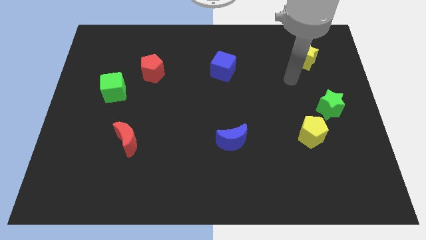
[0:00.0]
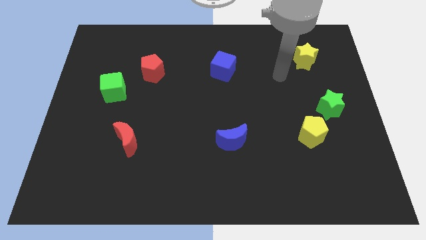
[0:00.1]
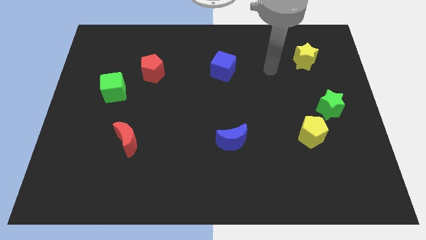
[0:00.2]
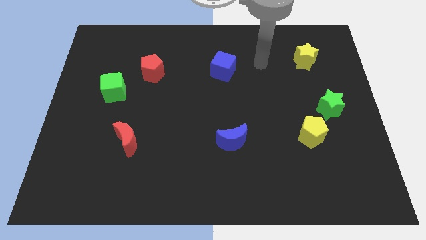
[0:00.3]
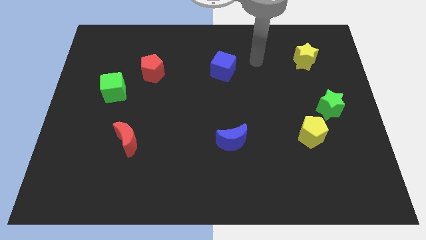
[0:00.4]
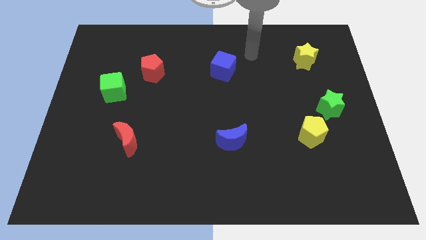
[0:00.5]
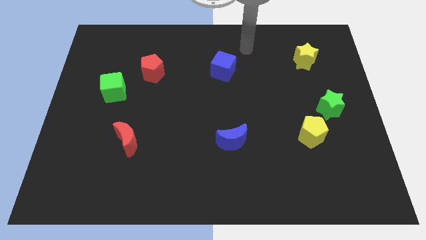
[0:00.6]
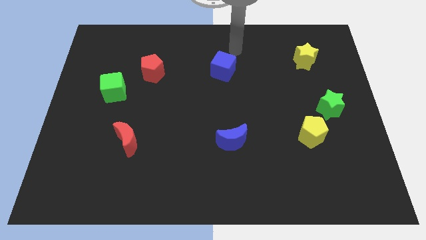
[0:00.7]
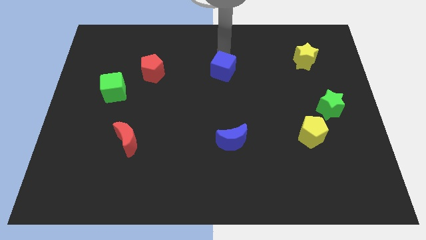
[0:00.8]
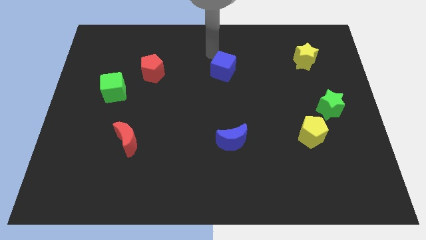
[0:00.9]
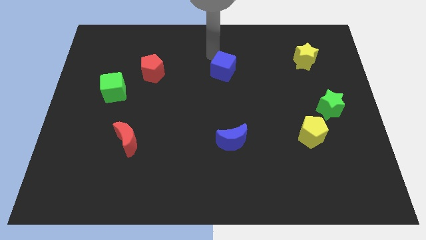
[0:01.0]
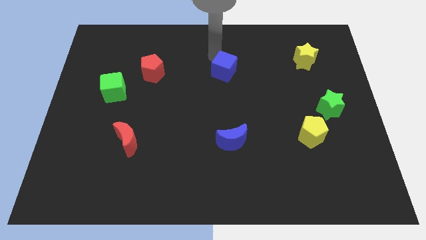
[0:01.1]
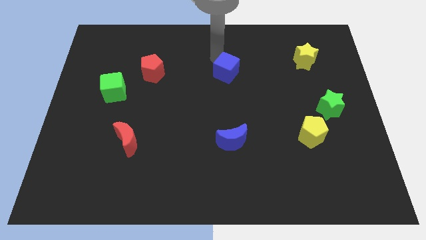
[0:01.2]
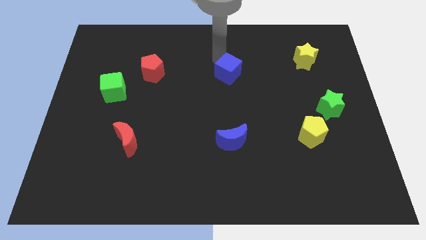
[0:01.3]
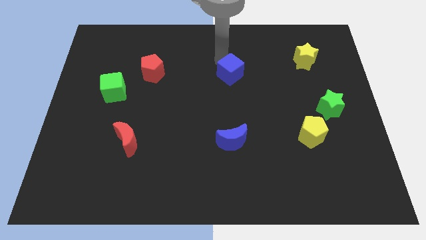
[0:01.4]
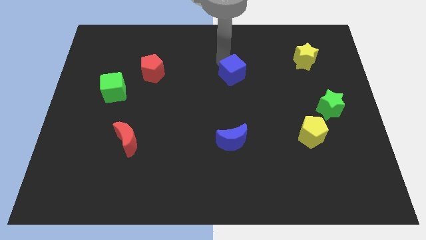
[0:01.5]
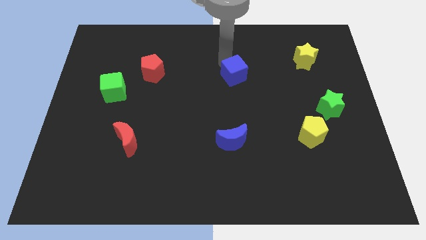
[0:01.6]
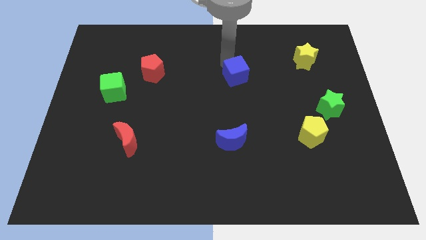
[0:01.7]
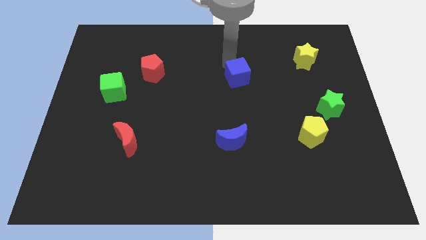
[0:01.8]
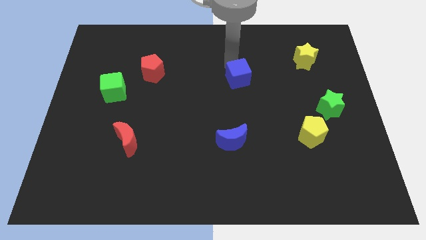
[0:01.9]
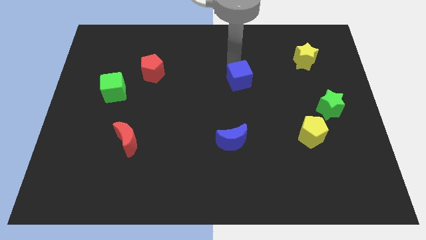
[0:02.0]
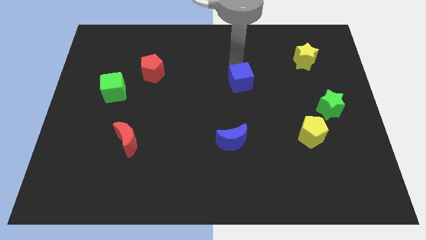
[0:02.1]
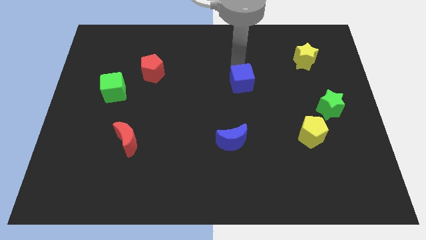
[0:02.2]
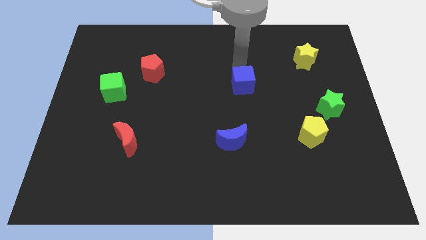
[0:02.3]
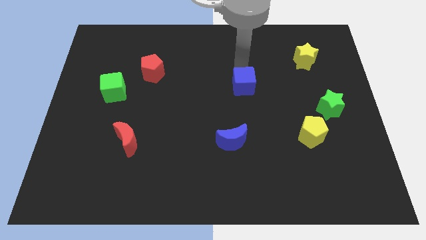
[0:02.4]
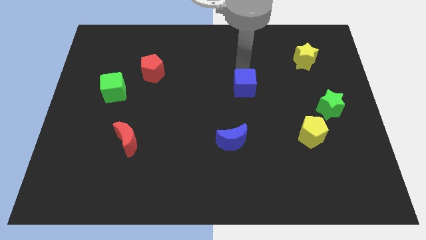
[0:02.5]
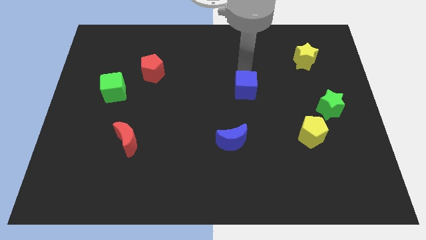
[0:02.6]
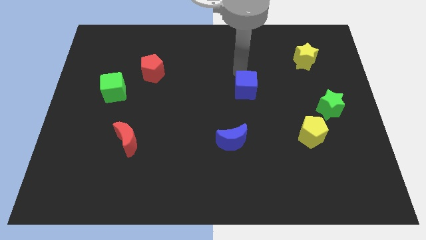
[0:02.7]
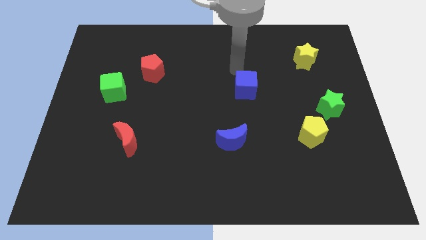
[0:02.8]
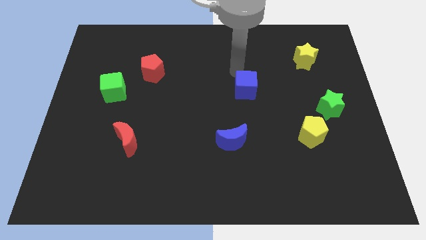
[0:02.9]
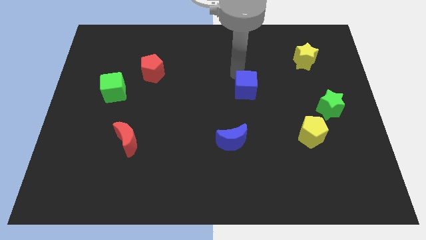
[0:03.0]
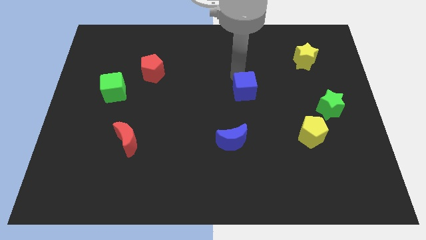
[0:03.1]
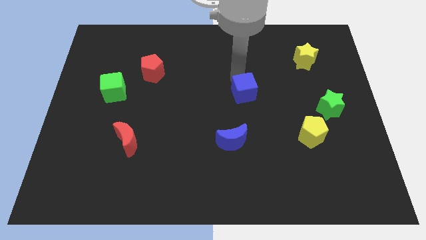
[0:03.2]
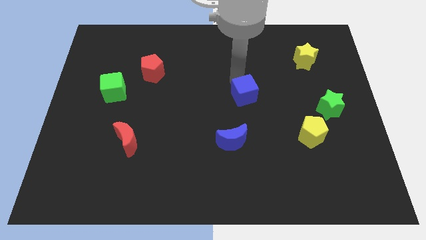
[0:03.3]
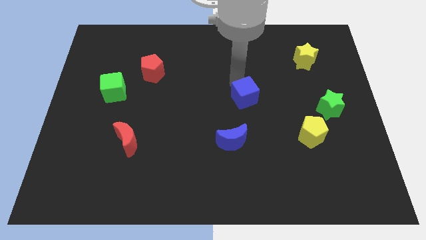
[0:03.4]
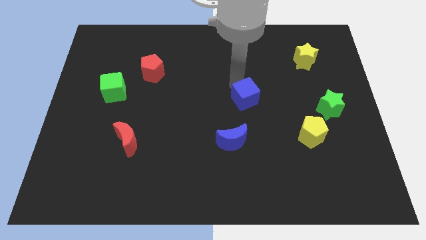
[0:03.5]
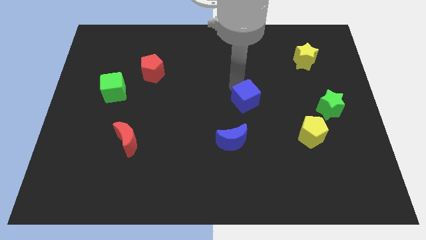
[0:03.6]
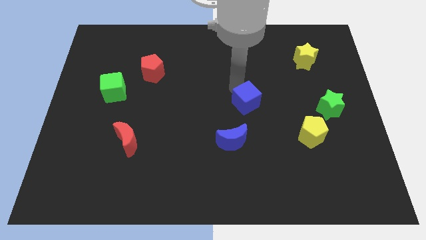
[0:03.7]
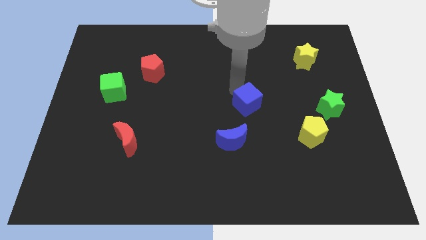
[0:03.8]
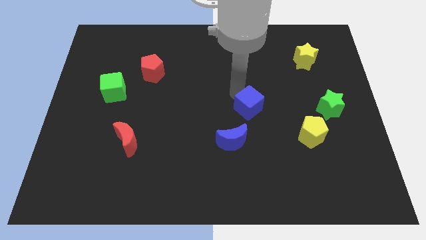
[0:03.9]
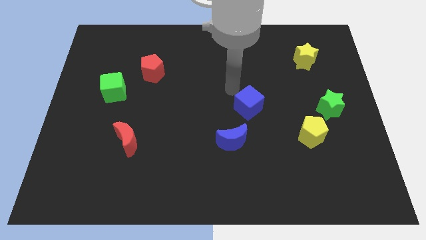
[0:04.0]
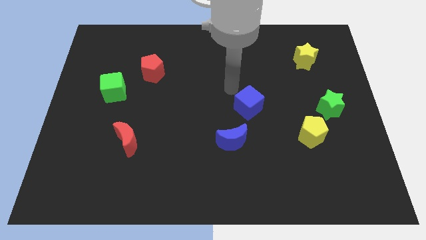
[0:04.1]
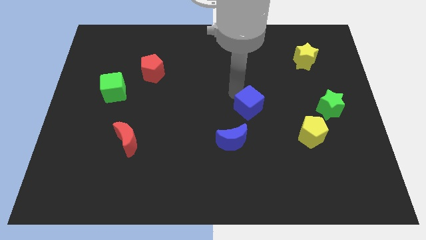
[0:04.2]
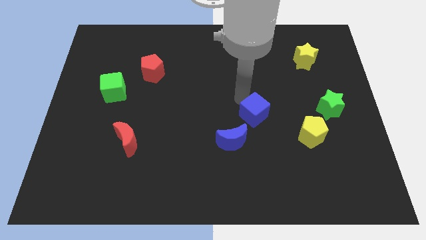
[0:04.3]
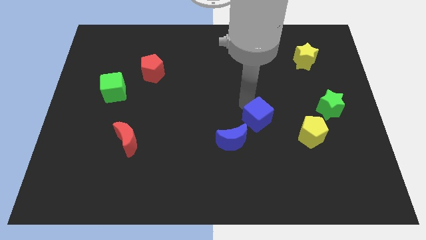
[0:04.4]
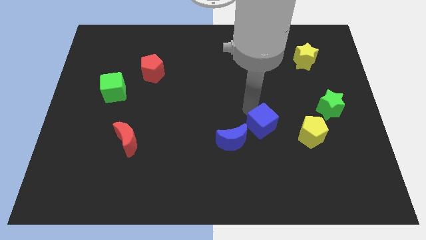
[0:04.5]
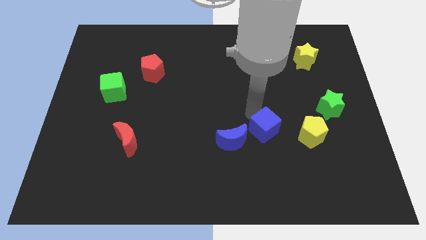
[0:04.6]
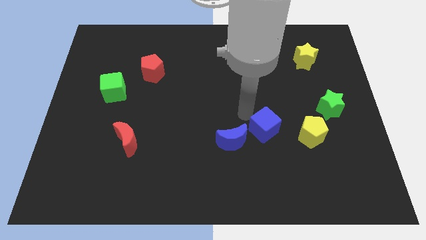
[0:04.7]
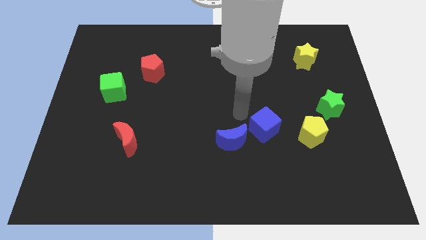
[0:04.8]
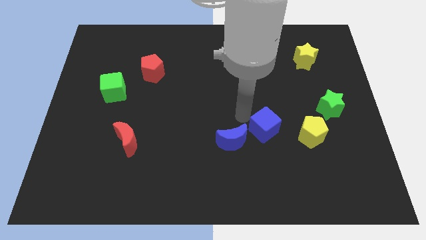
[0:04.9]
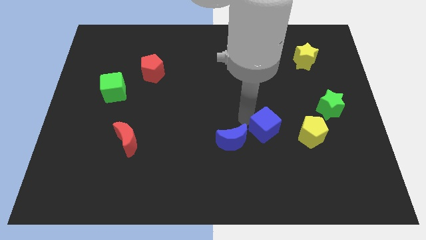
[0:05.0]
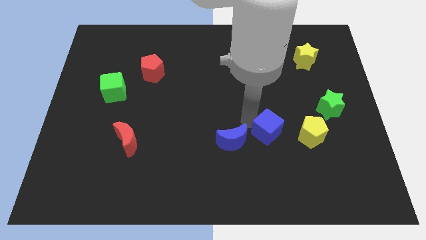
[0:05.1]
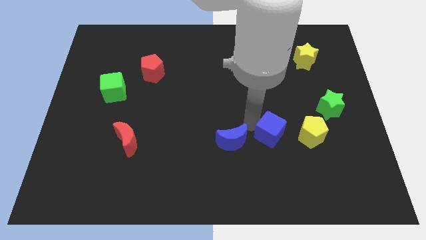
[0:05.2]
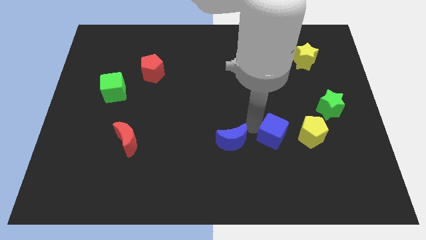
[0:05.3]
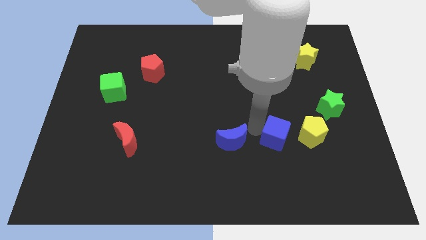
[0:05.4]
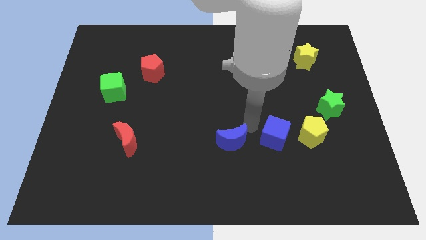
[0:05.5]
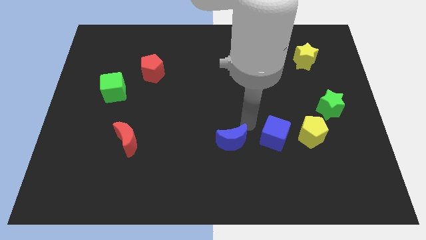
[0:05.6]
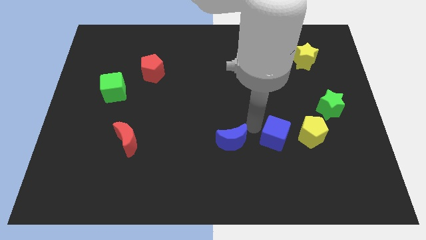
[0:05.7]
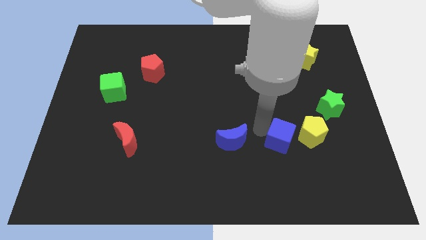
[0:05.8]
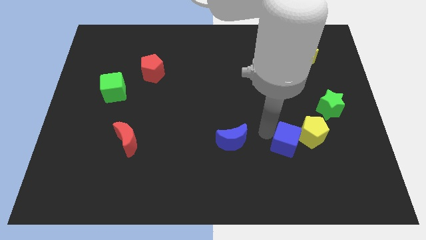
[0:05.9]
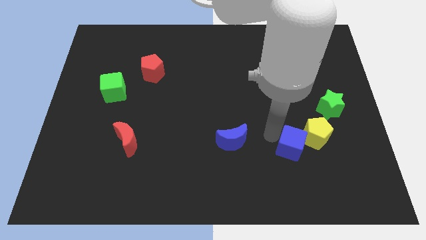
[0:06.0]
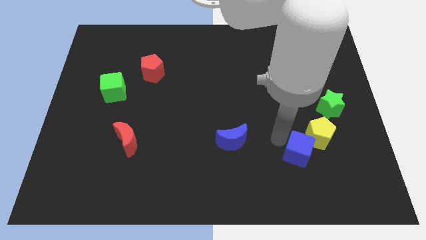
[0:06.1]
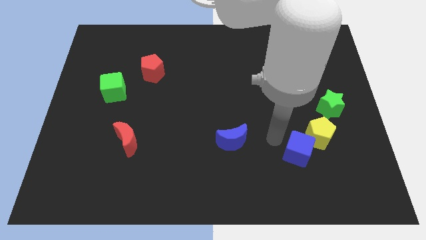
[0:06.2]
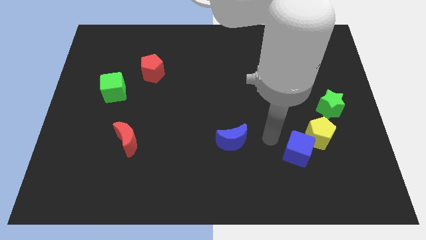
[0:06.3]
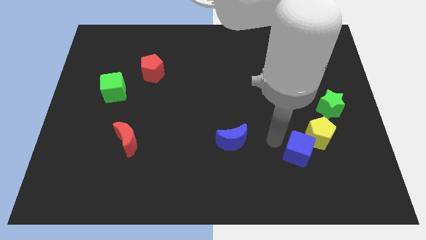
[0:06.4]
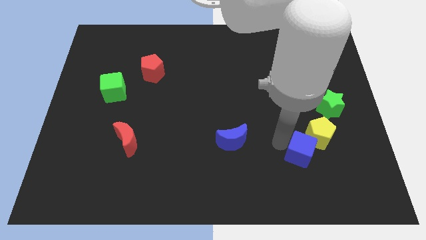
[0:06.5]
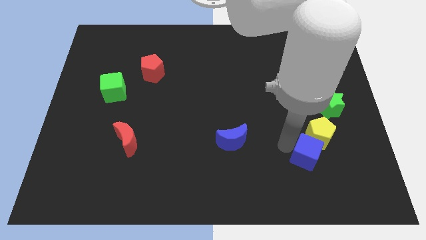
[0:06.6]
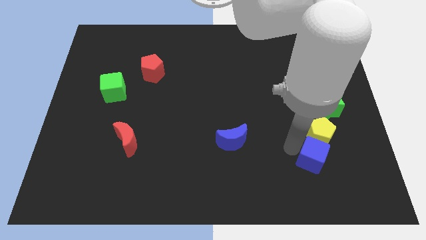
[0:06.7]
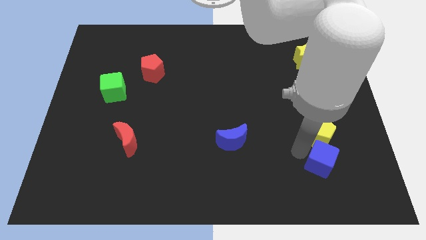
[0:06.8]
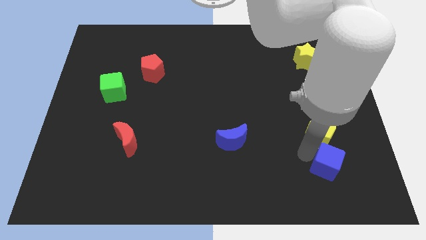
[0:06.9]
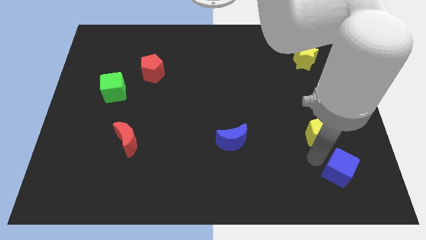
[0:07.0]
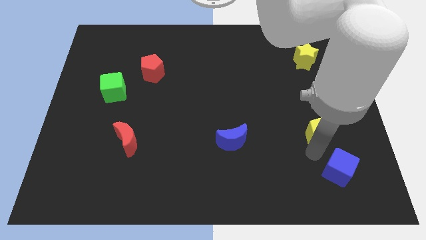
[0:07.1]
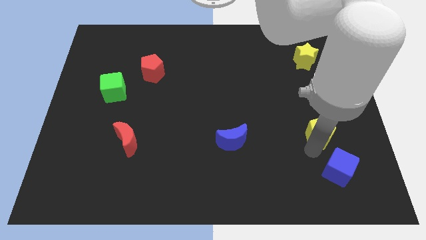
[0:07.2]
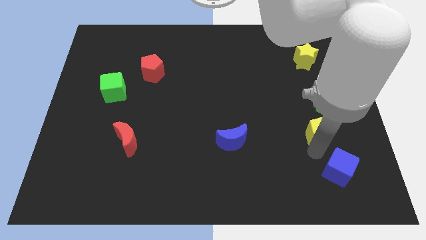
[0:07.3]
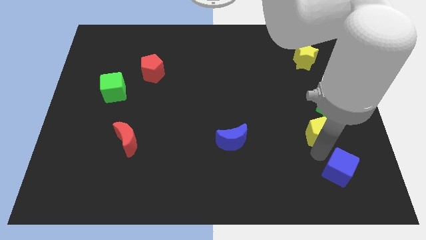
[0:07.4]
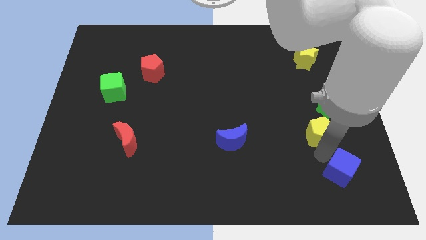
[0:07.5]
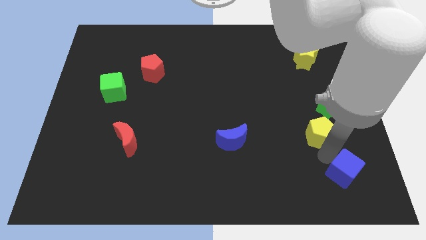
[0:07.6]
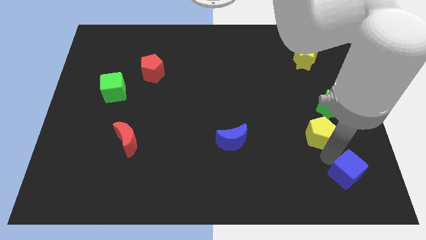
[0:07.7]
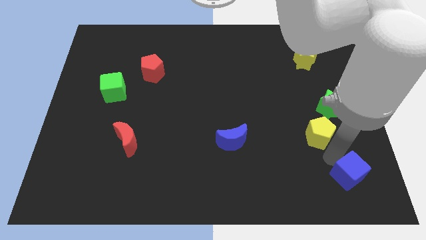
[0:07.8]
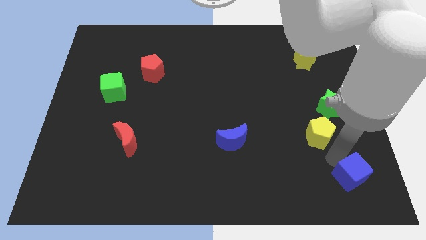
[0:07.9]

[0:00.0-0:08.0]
move the blue cube to the bottom right
